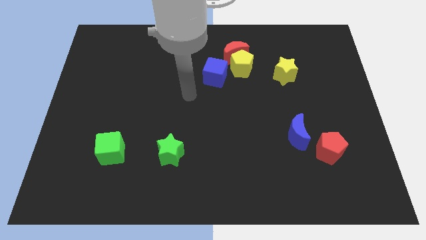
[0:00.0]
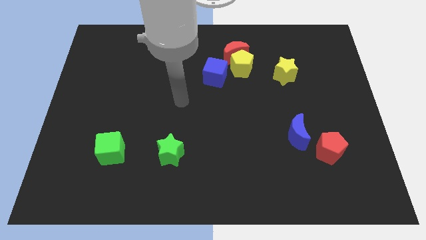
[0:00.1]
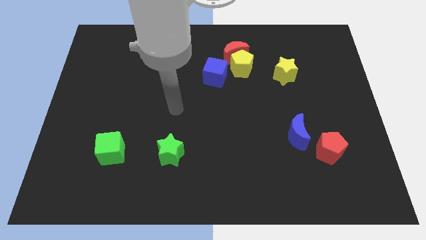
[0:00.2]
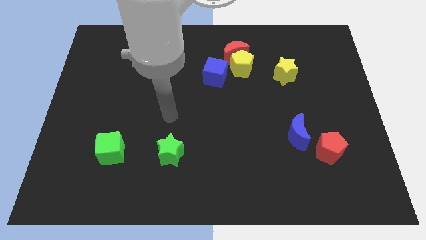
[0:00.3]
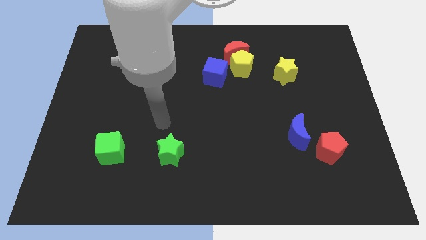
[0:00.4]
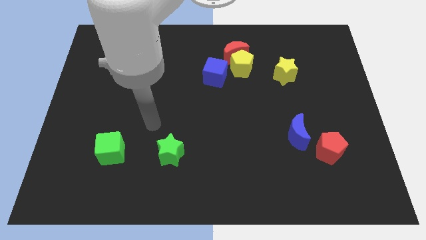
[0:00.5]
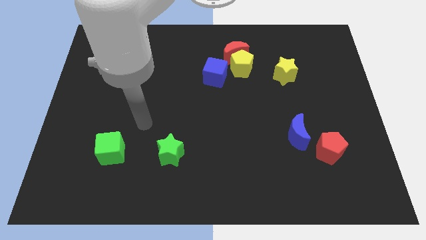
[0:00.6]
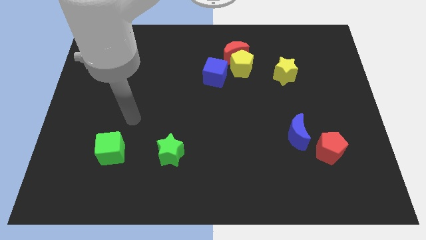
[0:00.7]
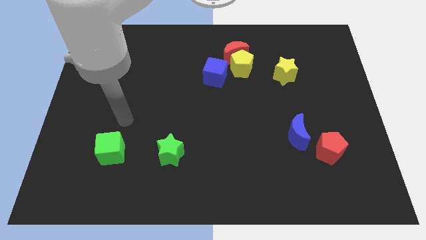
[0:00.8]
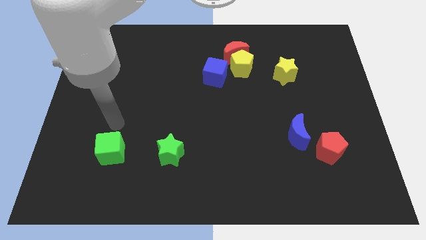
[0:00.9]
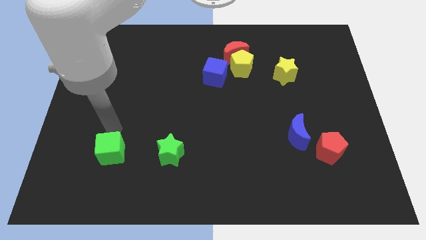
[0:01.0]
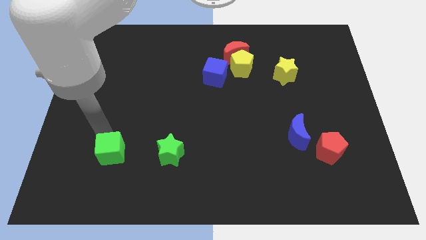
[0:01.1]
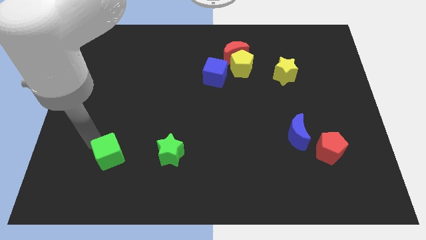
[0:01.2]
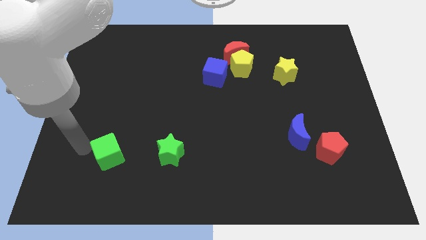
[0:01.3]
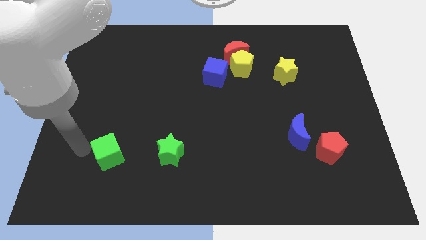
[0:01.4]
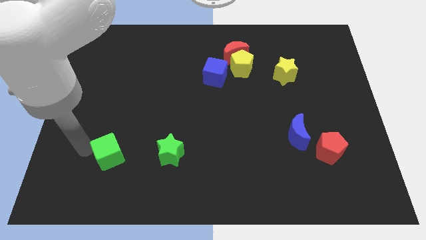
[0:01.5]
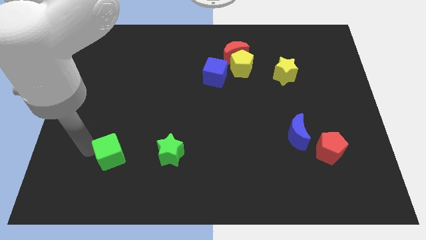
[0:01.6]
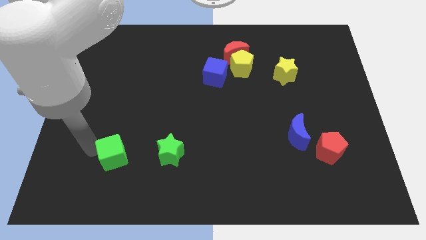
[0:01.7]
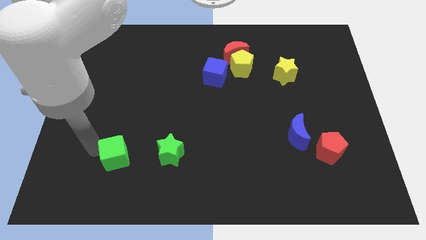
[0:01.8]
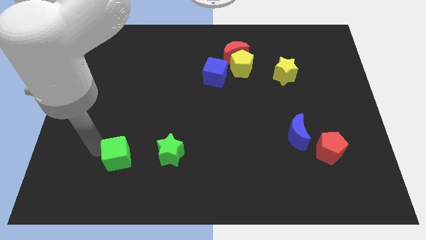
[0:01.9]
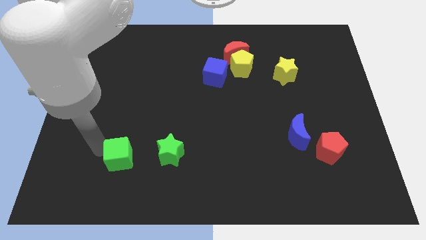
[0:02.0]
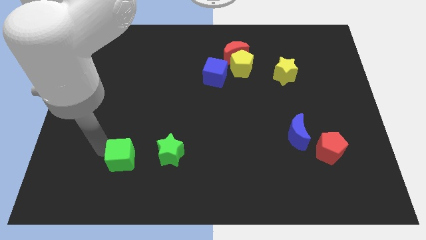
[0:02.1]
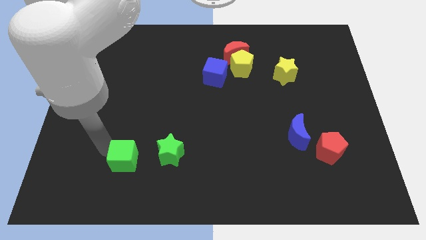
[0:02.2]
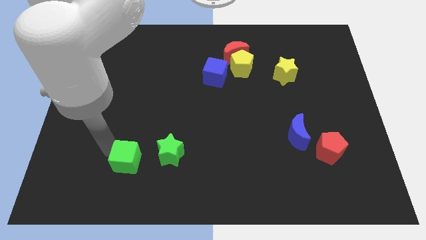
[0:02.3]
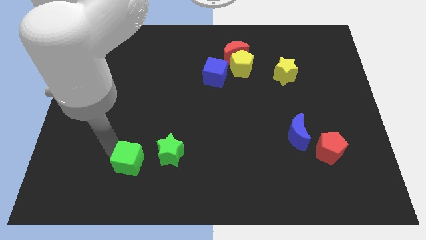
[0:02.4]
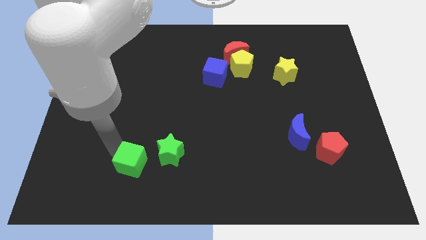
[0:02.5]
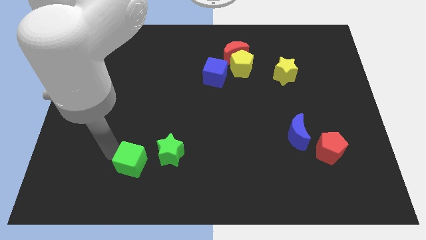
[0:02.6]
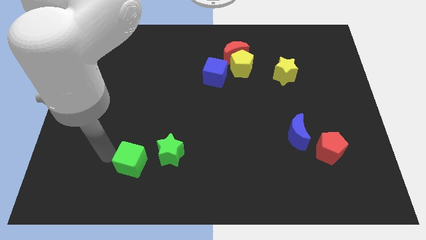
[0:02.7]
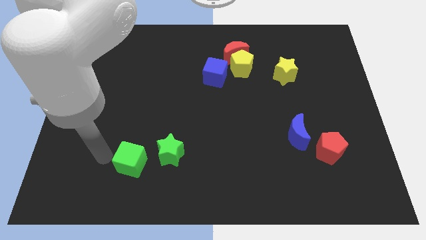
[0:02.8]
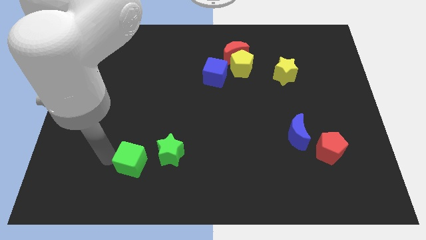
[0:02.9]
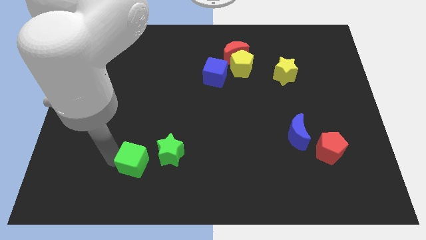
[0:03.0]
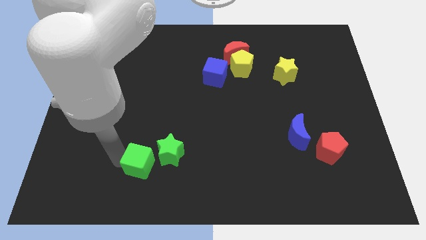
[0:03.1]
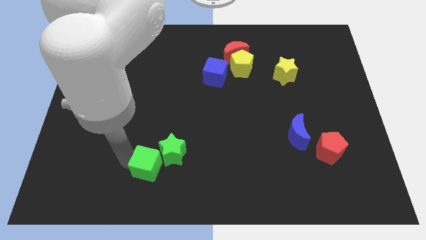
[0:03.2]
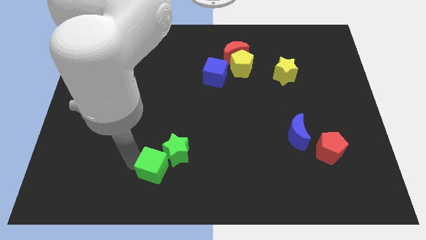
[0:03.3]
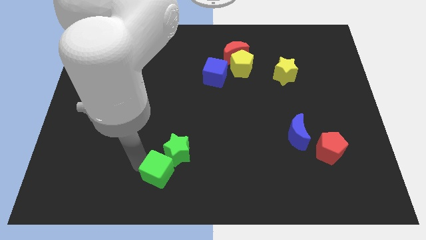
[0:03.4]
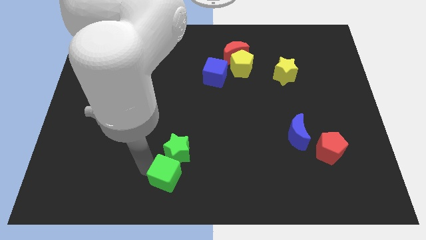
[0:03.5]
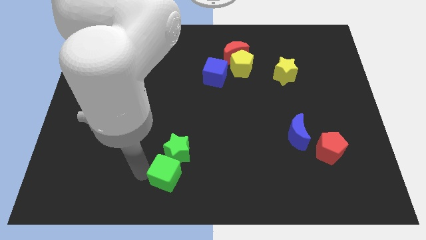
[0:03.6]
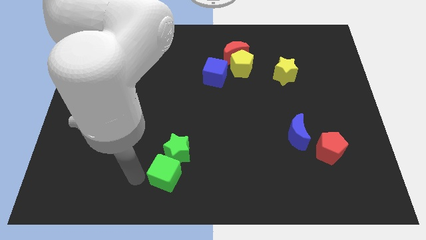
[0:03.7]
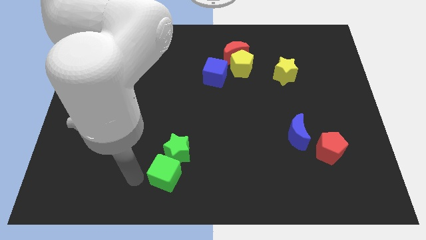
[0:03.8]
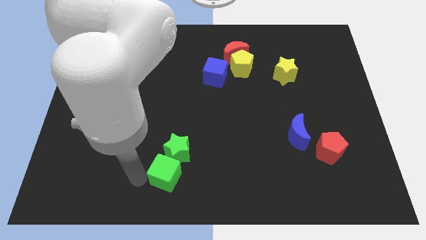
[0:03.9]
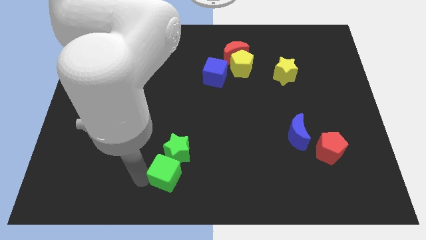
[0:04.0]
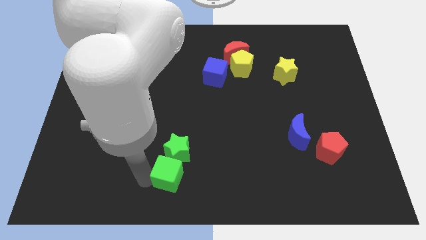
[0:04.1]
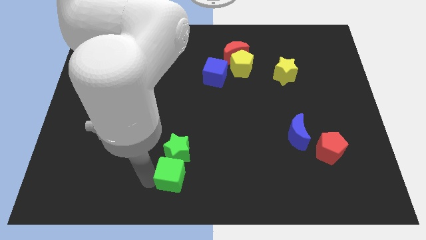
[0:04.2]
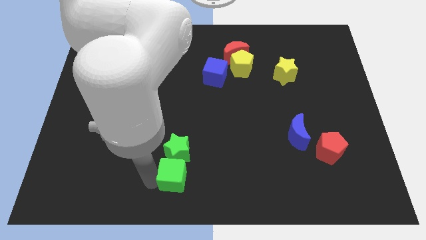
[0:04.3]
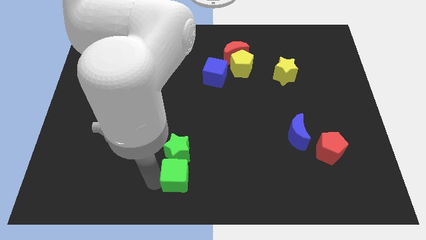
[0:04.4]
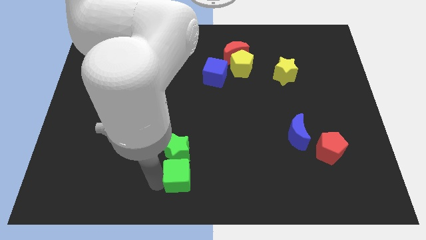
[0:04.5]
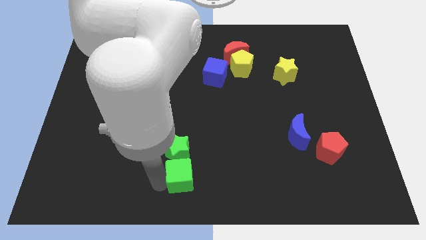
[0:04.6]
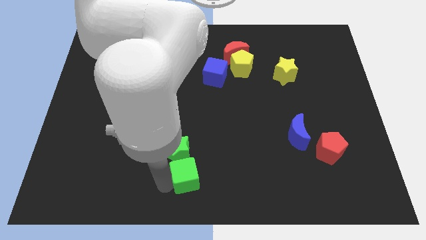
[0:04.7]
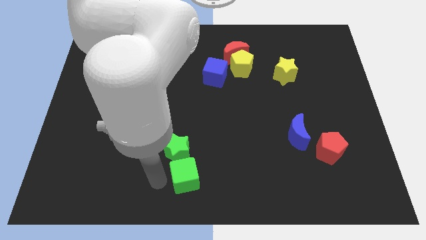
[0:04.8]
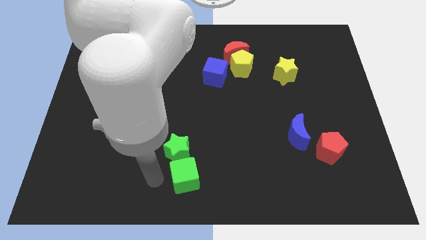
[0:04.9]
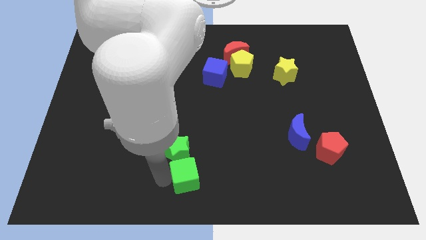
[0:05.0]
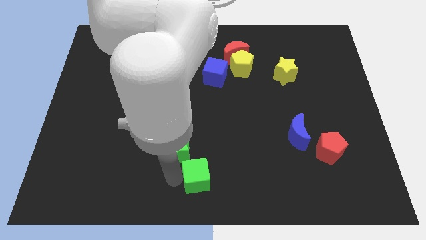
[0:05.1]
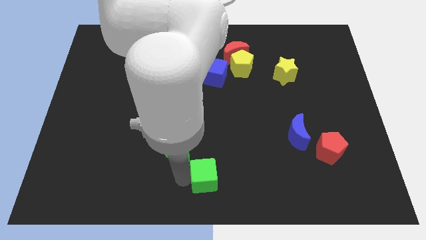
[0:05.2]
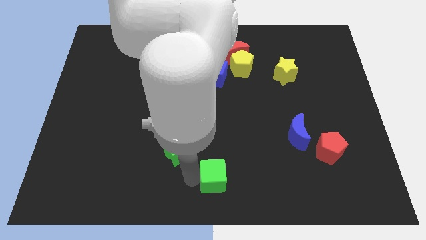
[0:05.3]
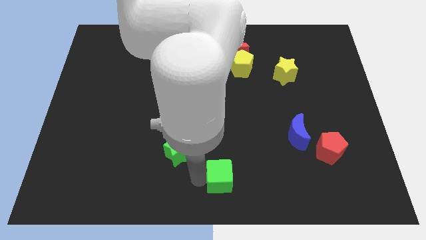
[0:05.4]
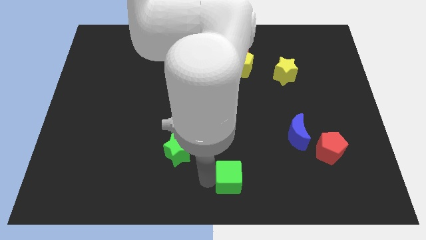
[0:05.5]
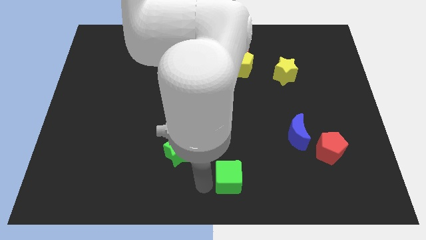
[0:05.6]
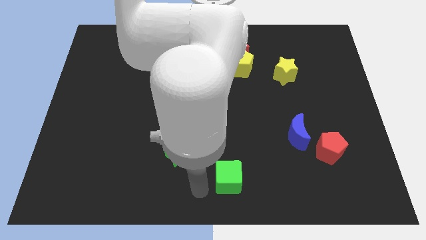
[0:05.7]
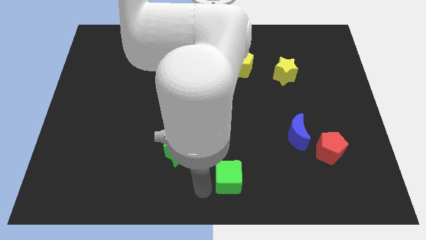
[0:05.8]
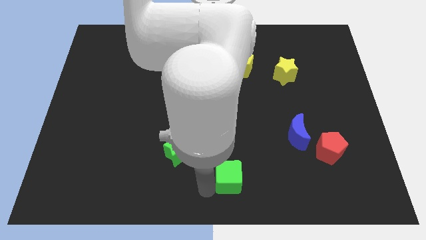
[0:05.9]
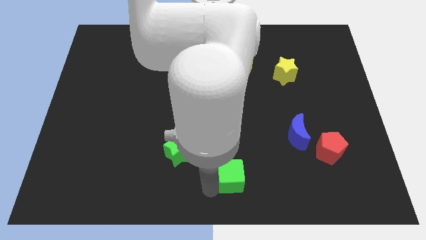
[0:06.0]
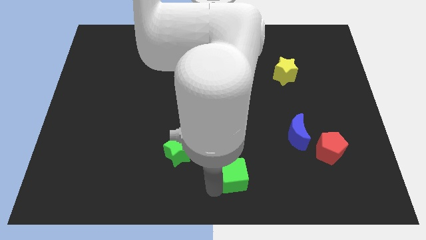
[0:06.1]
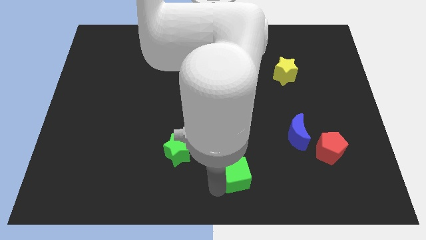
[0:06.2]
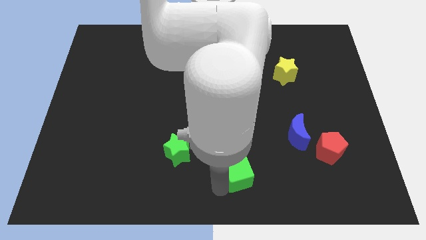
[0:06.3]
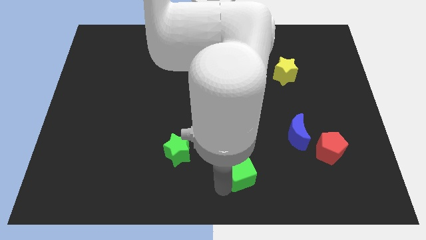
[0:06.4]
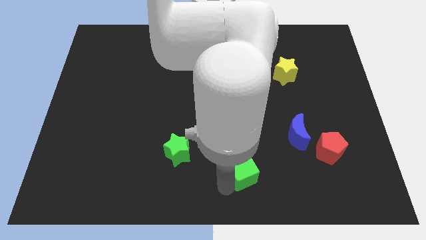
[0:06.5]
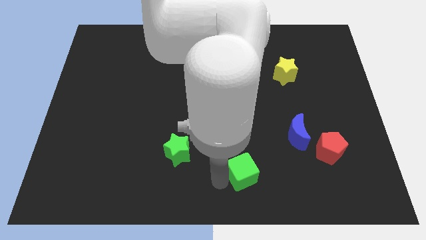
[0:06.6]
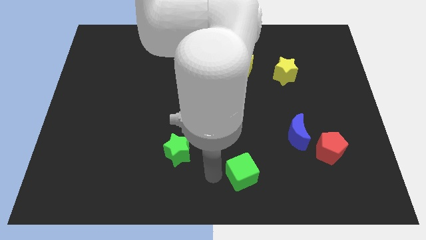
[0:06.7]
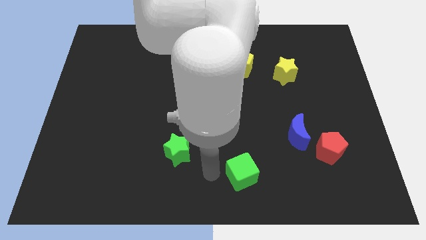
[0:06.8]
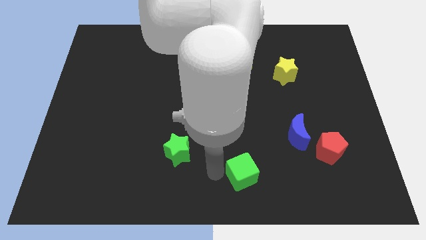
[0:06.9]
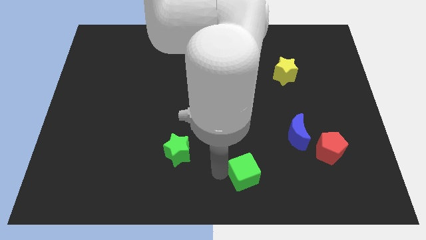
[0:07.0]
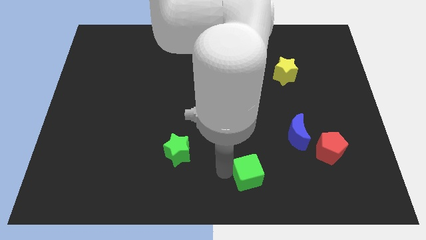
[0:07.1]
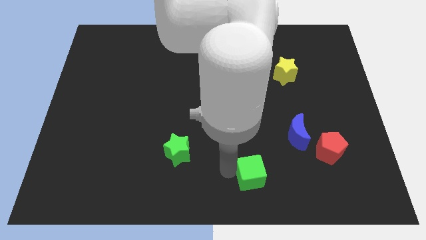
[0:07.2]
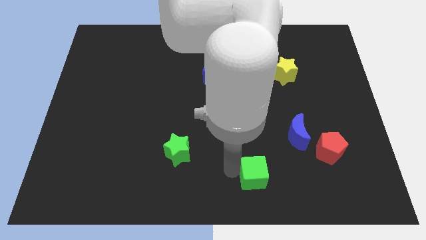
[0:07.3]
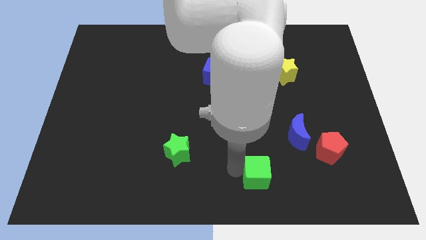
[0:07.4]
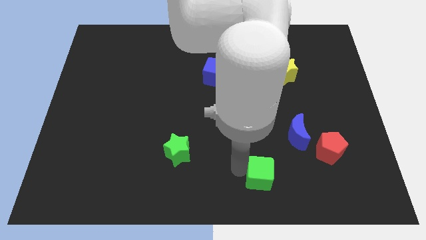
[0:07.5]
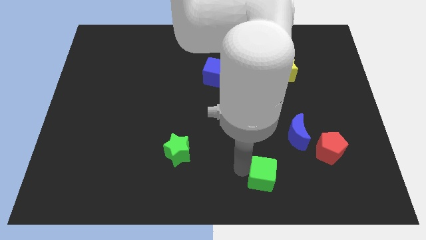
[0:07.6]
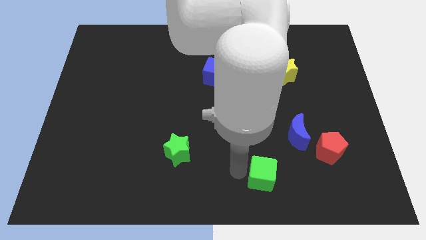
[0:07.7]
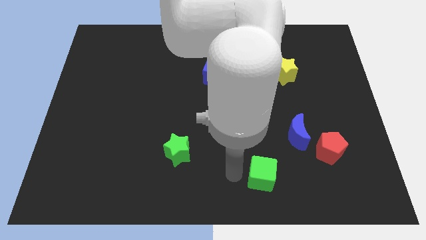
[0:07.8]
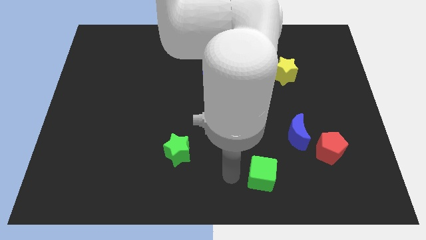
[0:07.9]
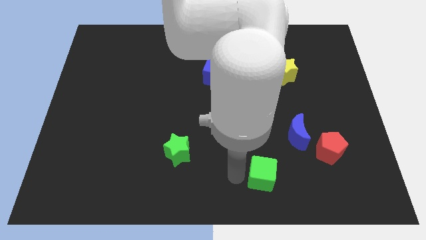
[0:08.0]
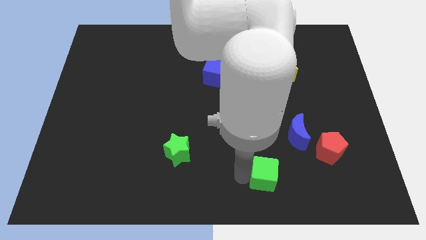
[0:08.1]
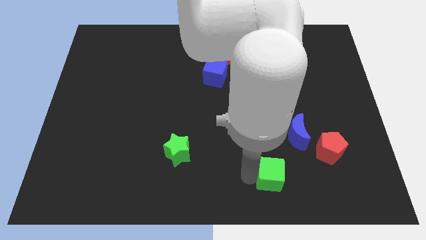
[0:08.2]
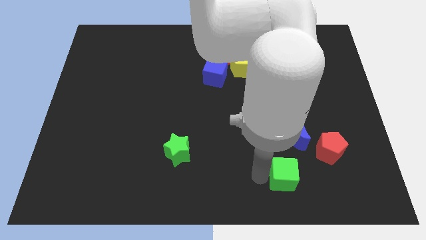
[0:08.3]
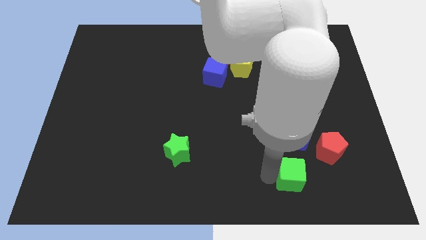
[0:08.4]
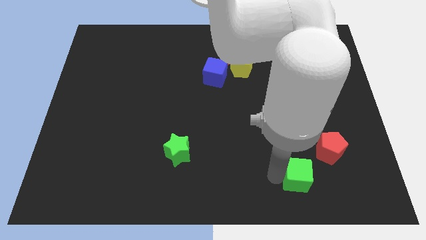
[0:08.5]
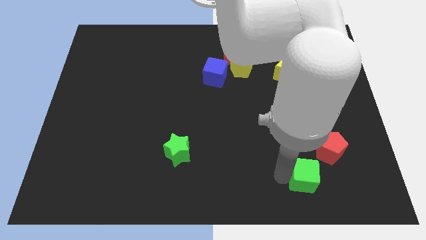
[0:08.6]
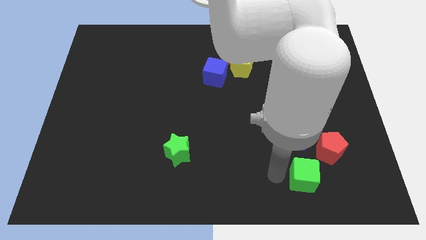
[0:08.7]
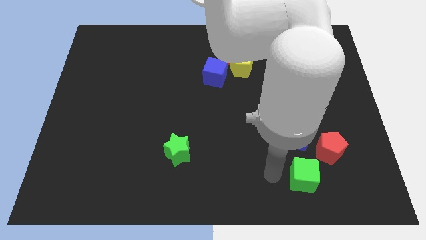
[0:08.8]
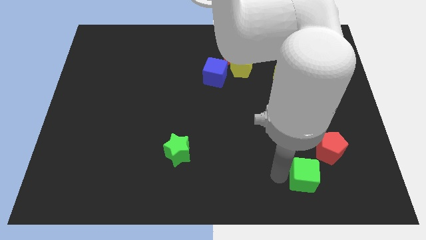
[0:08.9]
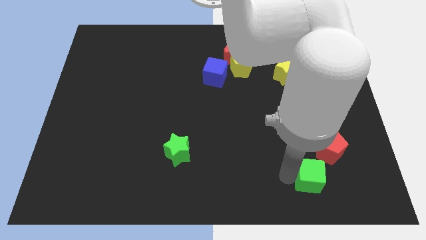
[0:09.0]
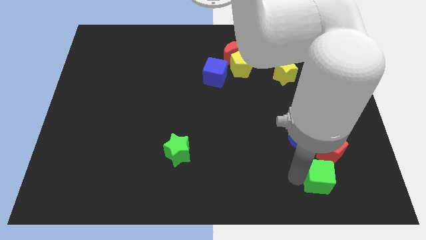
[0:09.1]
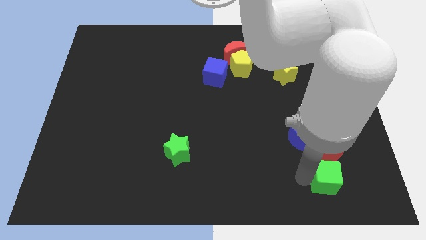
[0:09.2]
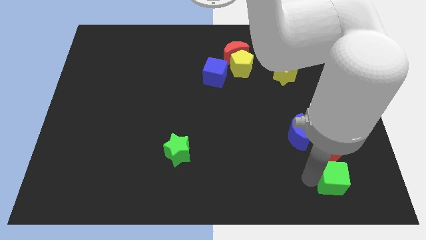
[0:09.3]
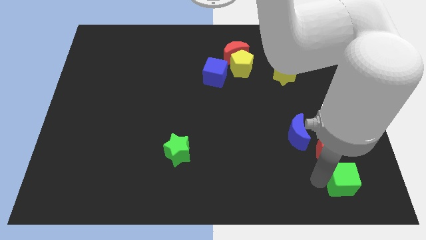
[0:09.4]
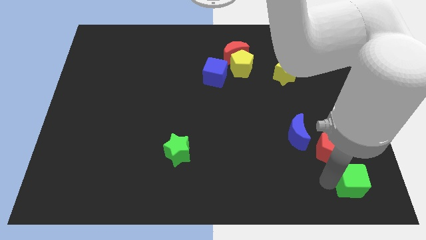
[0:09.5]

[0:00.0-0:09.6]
move the green cube to the lower right corner
